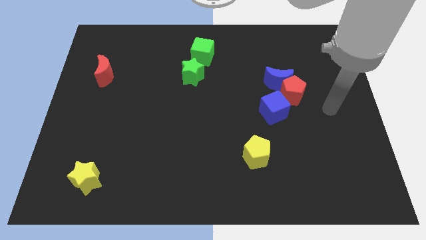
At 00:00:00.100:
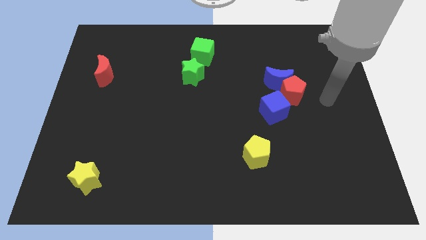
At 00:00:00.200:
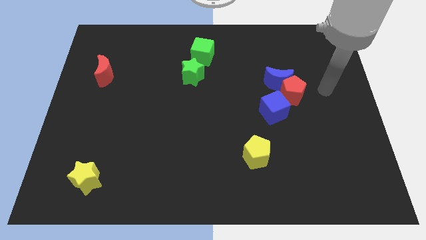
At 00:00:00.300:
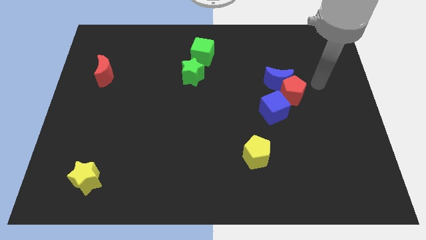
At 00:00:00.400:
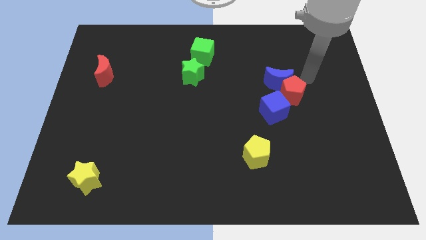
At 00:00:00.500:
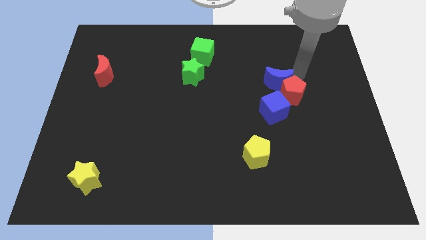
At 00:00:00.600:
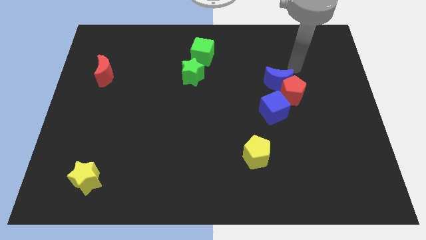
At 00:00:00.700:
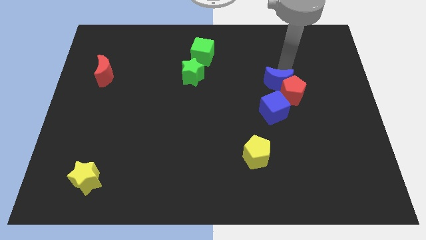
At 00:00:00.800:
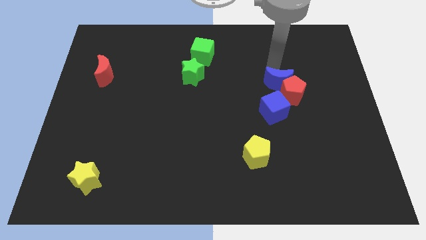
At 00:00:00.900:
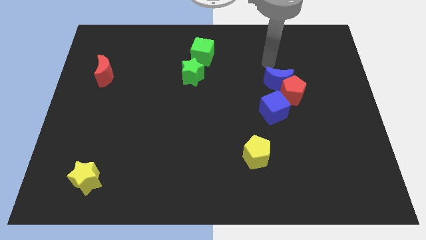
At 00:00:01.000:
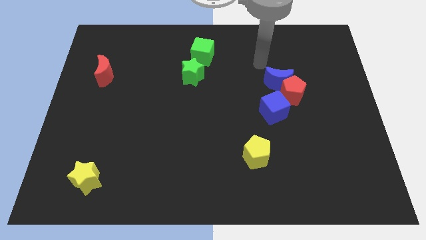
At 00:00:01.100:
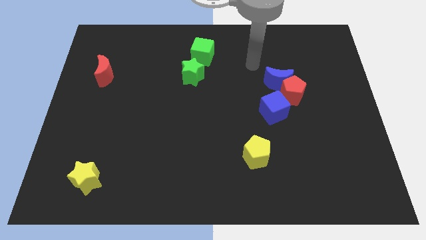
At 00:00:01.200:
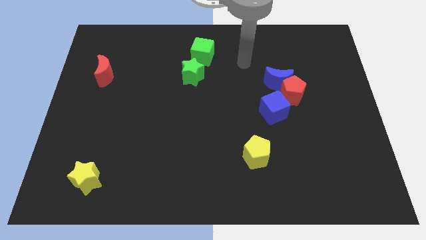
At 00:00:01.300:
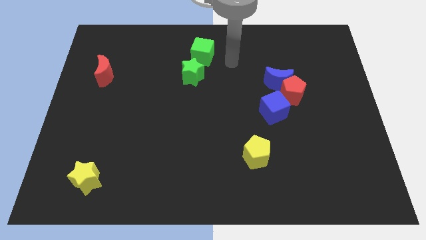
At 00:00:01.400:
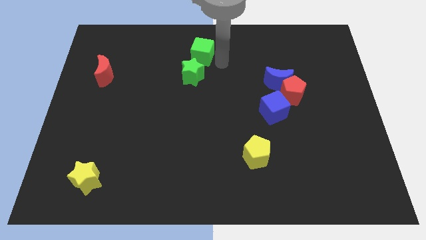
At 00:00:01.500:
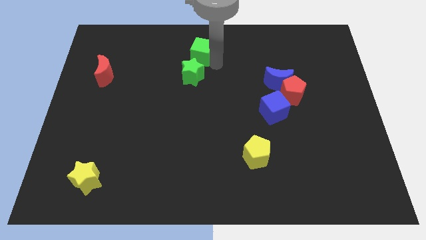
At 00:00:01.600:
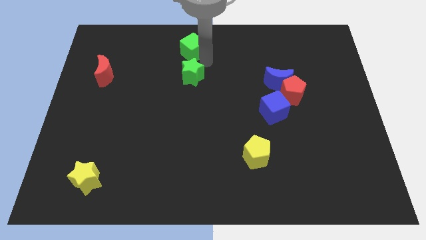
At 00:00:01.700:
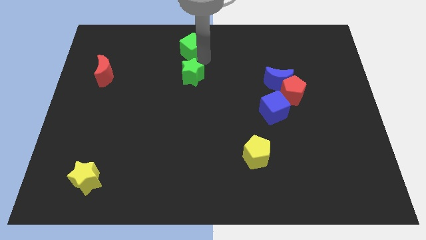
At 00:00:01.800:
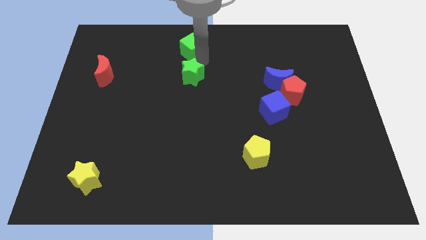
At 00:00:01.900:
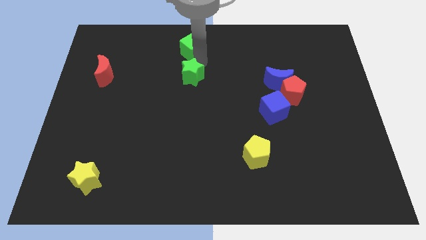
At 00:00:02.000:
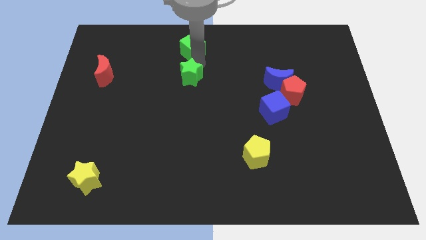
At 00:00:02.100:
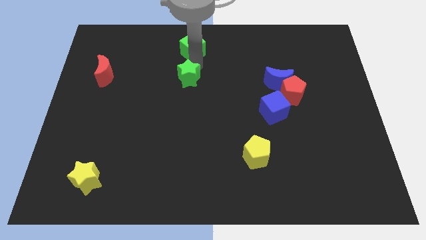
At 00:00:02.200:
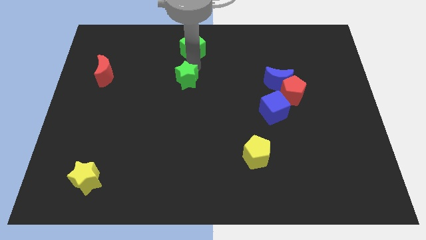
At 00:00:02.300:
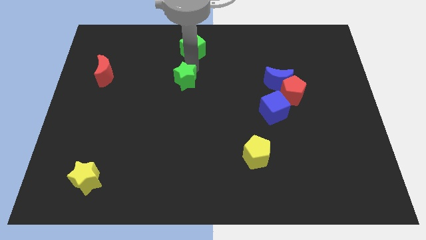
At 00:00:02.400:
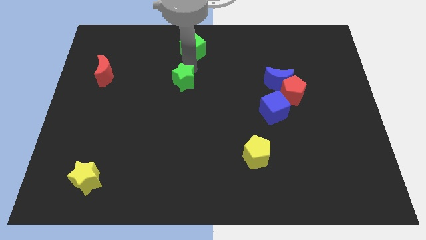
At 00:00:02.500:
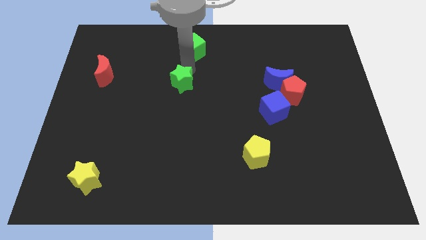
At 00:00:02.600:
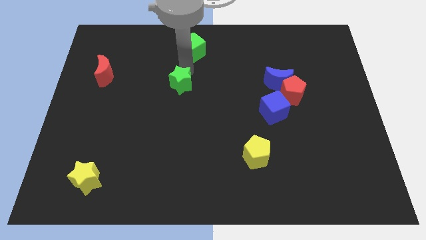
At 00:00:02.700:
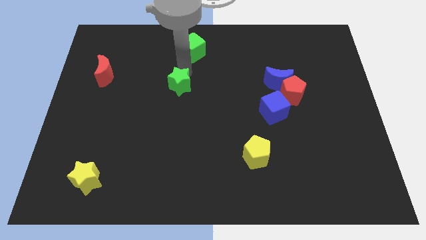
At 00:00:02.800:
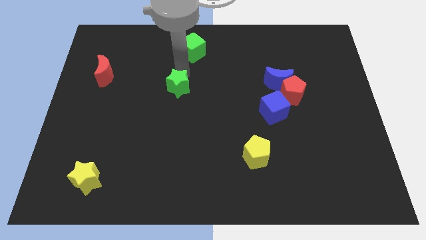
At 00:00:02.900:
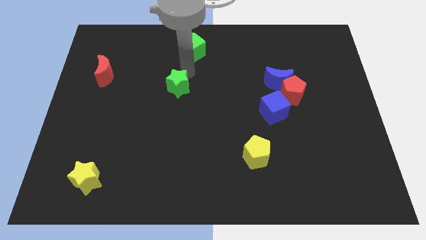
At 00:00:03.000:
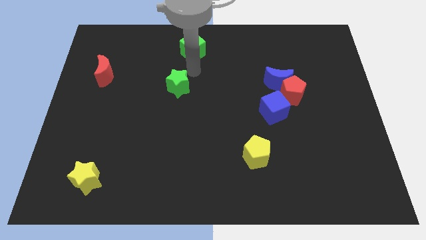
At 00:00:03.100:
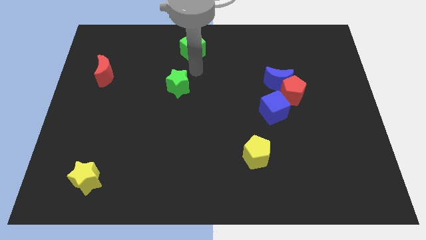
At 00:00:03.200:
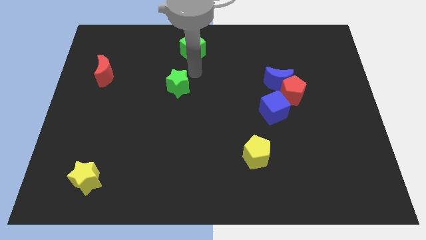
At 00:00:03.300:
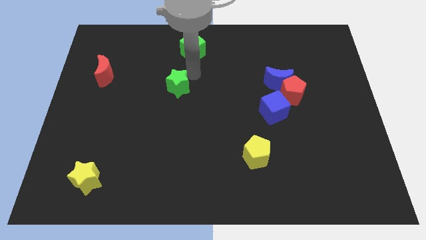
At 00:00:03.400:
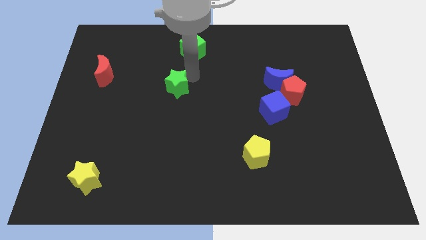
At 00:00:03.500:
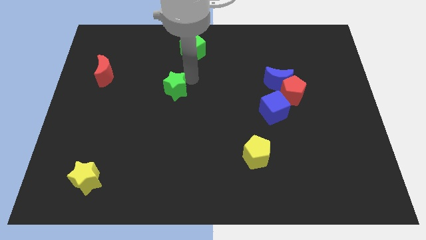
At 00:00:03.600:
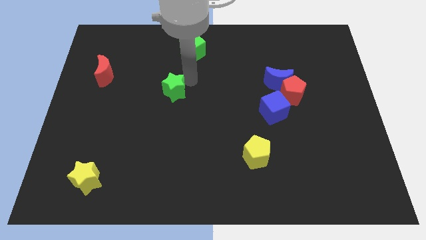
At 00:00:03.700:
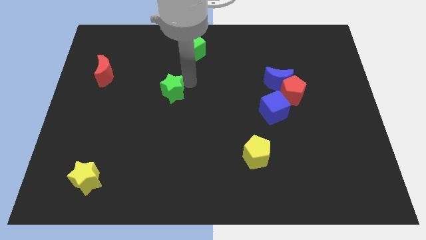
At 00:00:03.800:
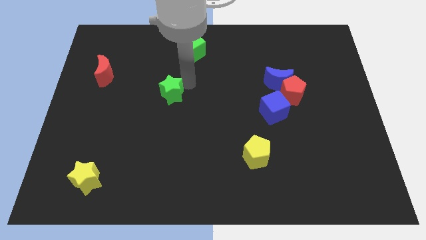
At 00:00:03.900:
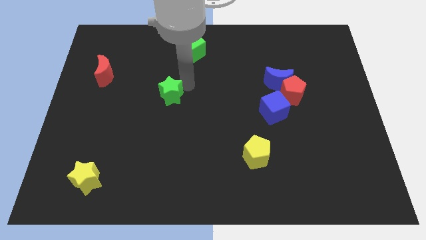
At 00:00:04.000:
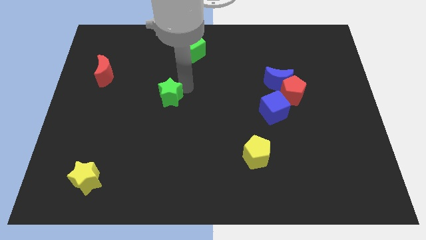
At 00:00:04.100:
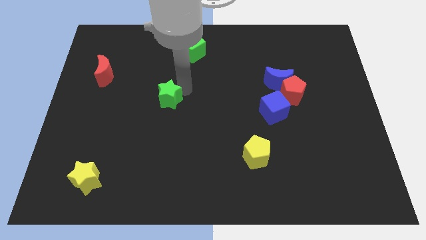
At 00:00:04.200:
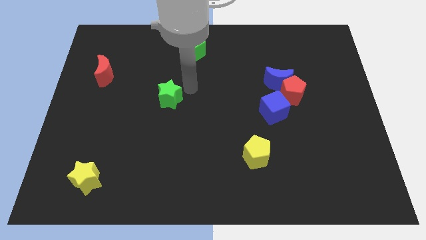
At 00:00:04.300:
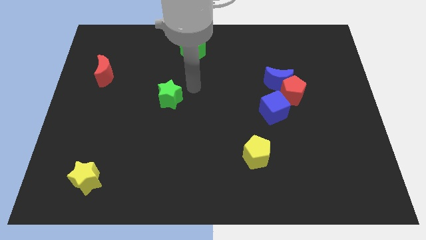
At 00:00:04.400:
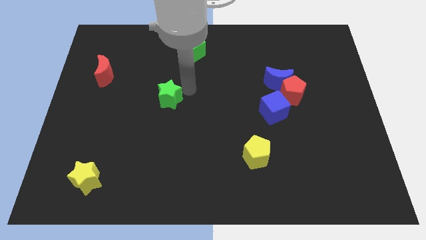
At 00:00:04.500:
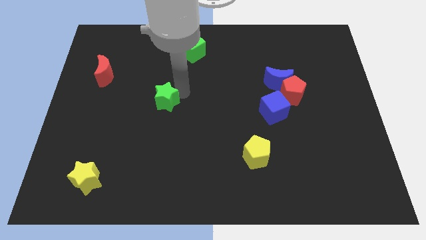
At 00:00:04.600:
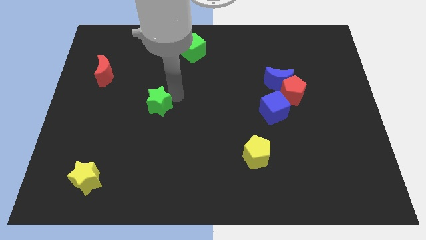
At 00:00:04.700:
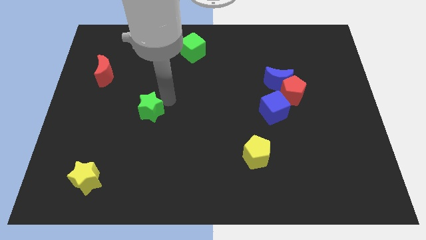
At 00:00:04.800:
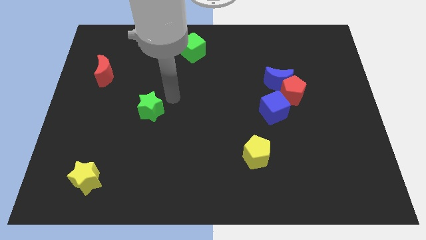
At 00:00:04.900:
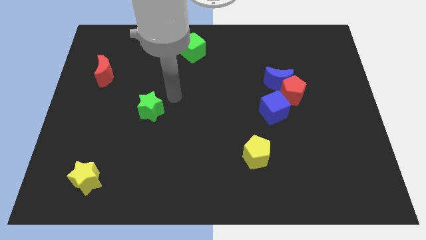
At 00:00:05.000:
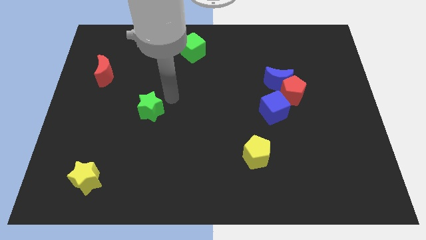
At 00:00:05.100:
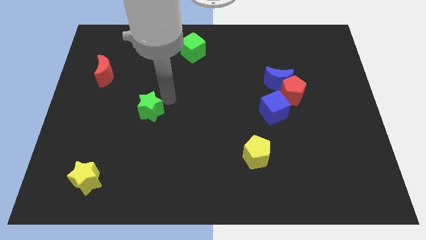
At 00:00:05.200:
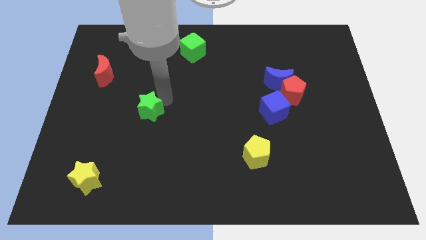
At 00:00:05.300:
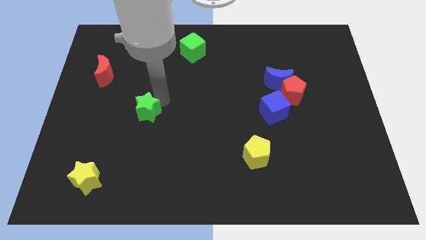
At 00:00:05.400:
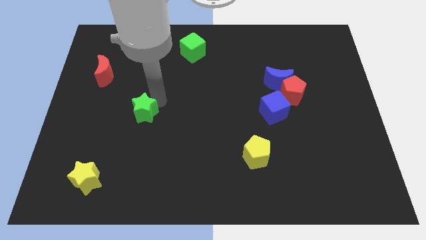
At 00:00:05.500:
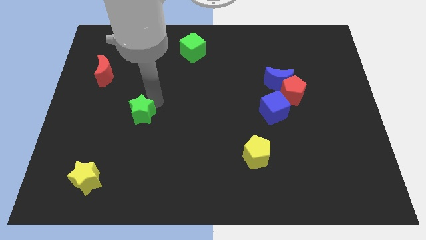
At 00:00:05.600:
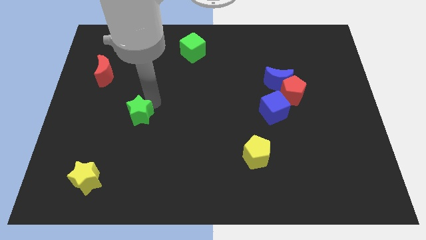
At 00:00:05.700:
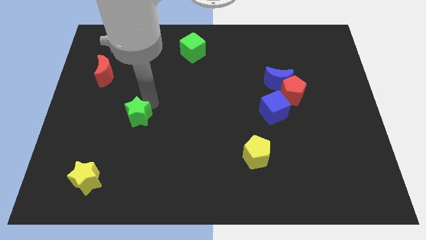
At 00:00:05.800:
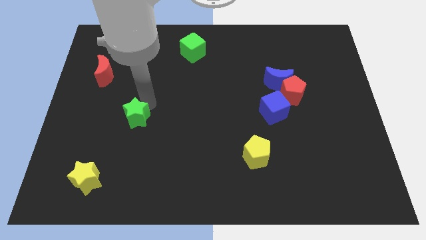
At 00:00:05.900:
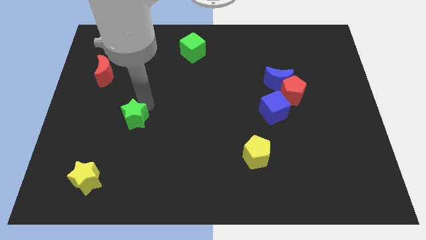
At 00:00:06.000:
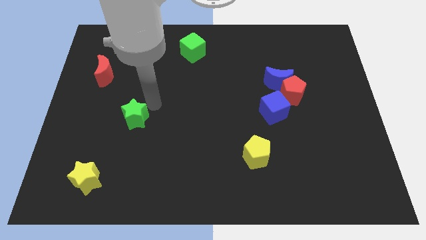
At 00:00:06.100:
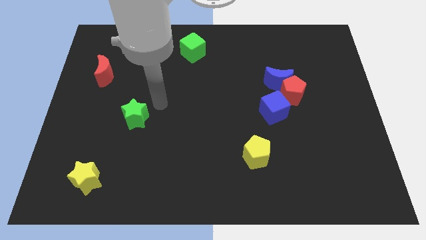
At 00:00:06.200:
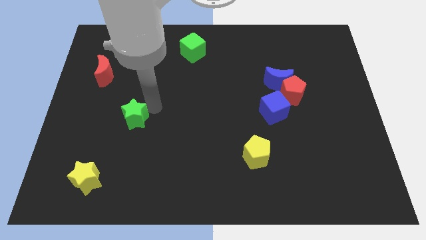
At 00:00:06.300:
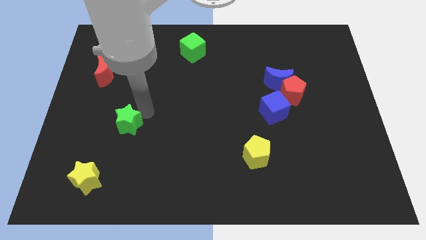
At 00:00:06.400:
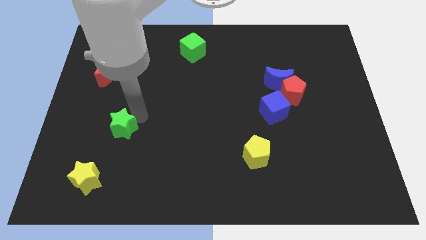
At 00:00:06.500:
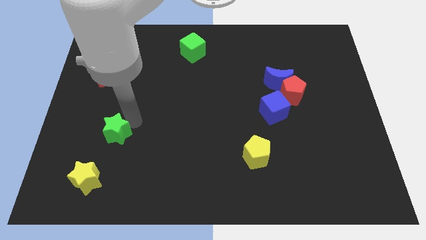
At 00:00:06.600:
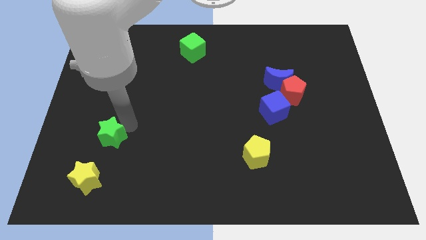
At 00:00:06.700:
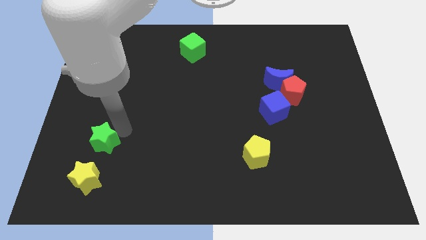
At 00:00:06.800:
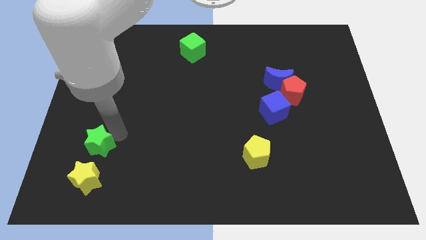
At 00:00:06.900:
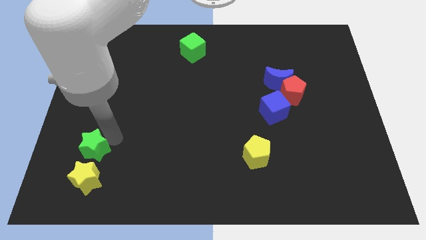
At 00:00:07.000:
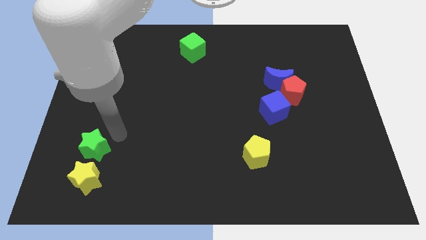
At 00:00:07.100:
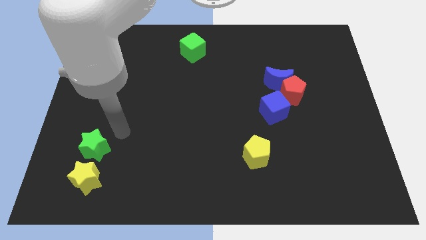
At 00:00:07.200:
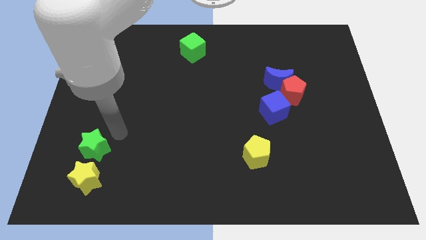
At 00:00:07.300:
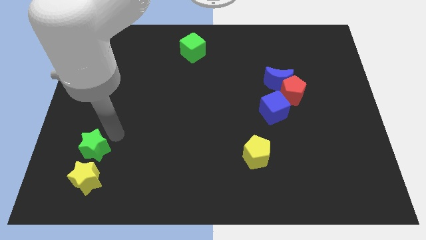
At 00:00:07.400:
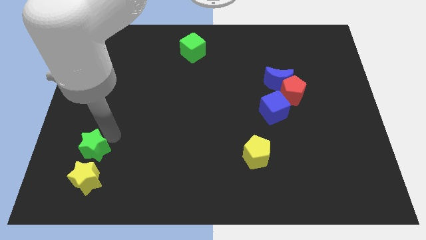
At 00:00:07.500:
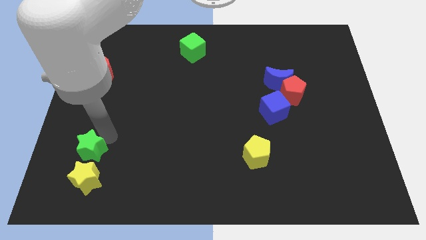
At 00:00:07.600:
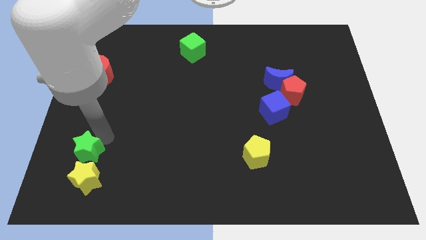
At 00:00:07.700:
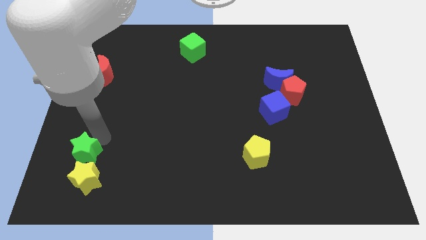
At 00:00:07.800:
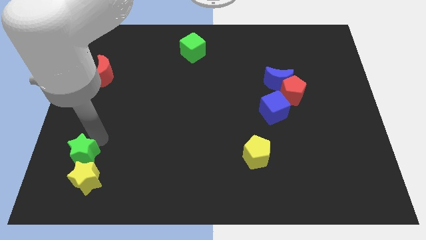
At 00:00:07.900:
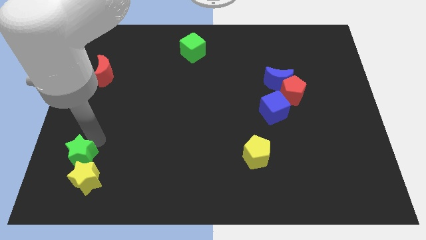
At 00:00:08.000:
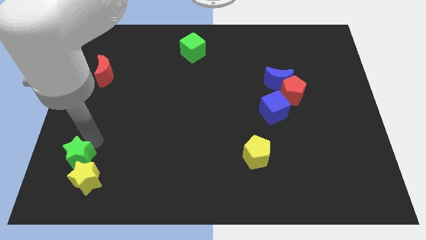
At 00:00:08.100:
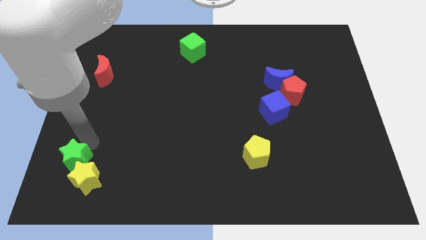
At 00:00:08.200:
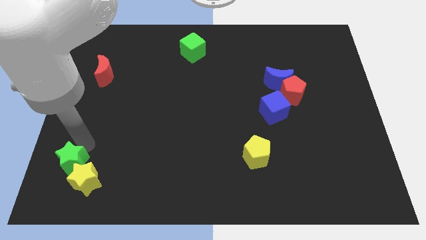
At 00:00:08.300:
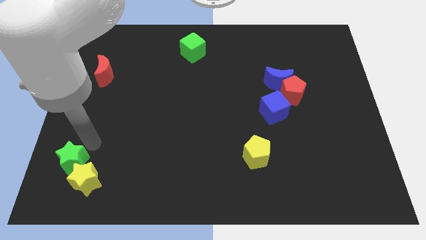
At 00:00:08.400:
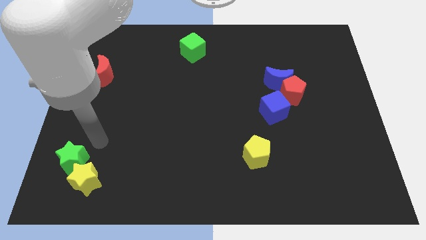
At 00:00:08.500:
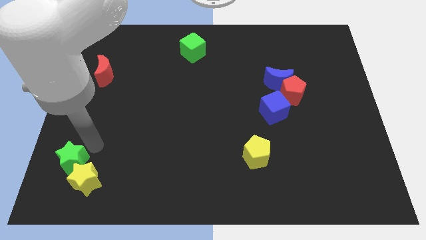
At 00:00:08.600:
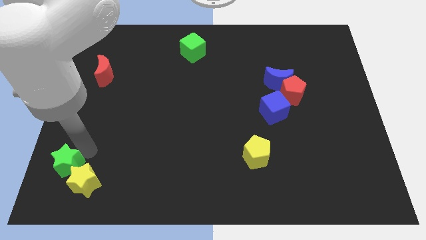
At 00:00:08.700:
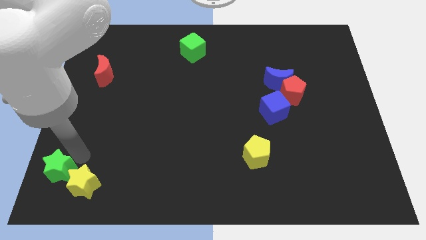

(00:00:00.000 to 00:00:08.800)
slide the green star to the lower left corner
